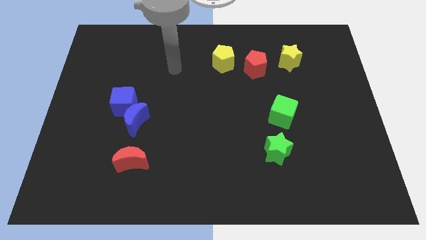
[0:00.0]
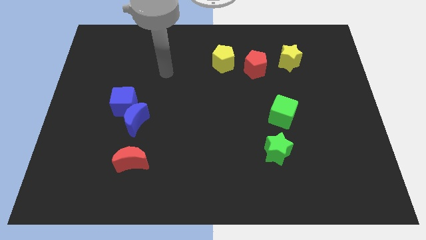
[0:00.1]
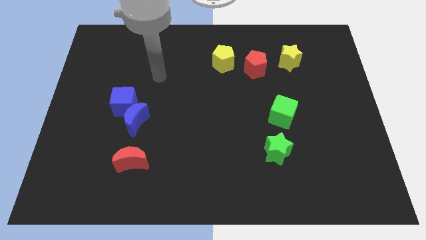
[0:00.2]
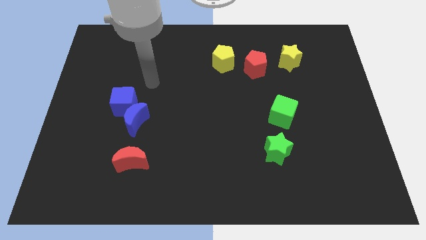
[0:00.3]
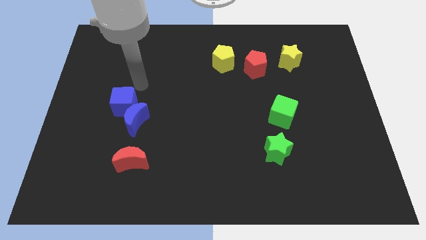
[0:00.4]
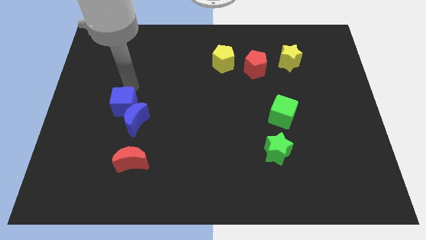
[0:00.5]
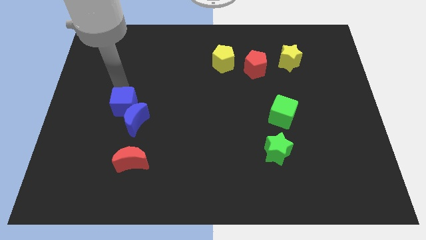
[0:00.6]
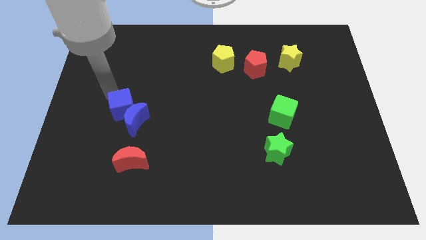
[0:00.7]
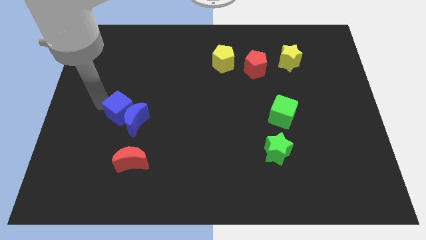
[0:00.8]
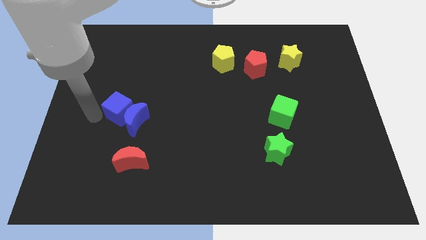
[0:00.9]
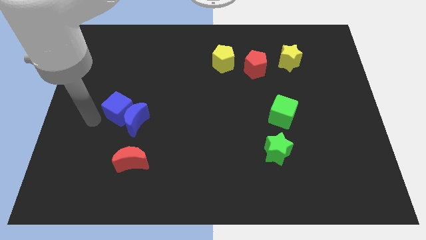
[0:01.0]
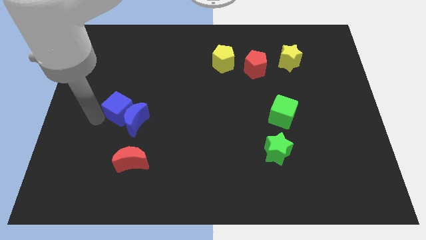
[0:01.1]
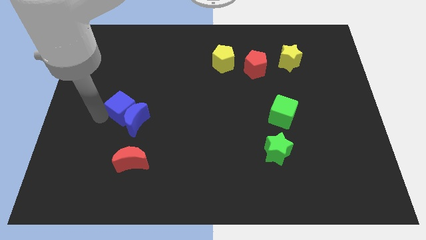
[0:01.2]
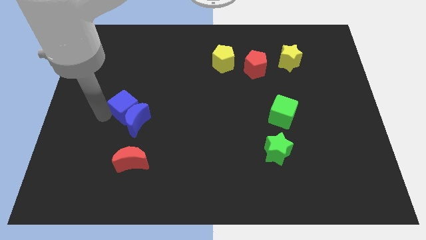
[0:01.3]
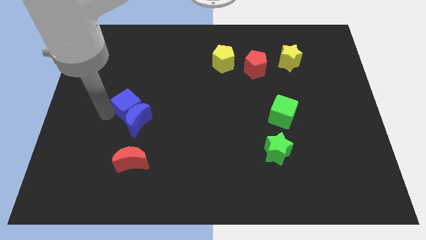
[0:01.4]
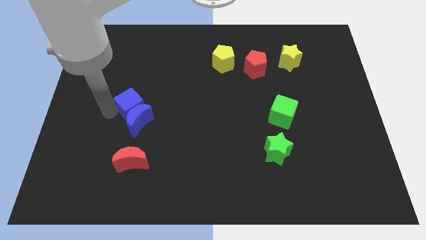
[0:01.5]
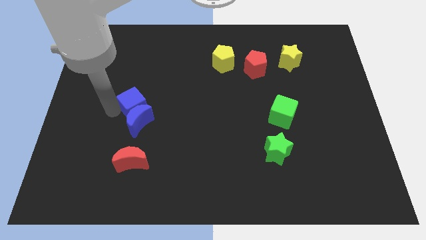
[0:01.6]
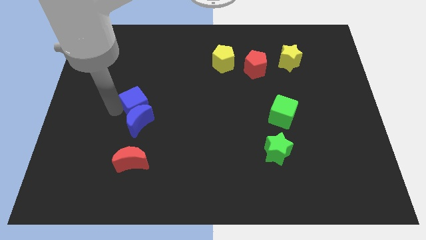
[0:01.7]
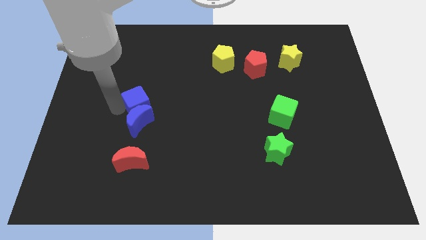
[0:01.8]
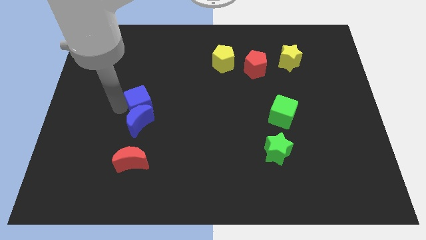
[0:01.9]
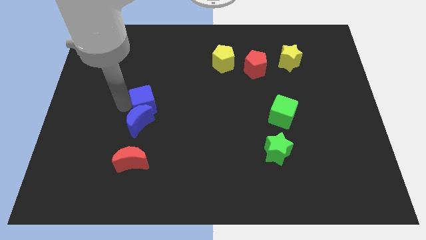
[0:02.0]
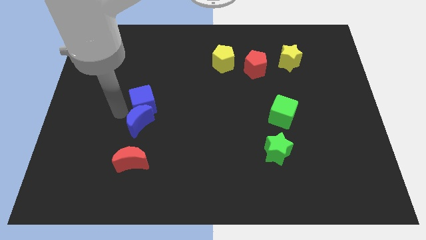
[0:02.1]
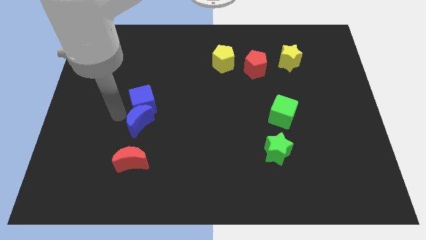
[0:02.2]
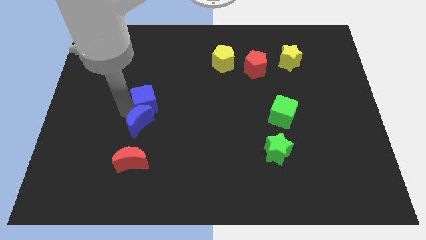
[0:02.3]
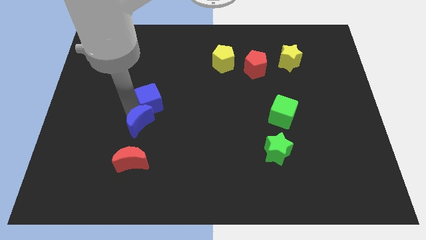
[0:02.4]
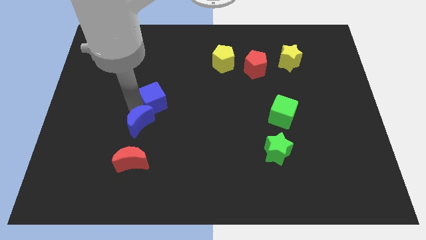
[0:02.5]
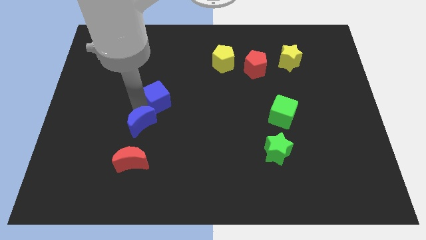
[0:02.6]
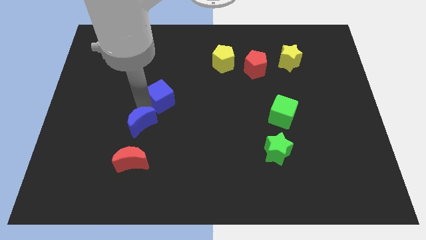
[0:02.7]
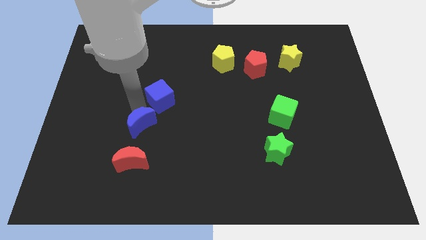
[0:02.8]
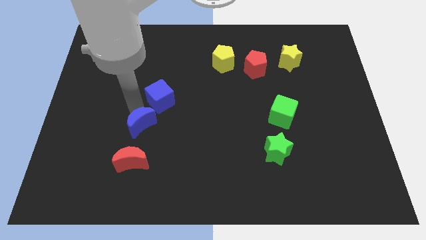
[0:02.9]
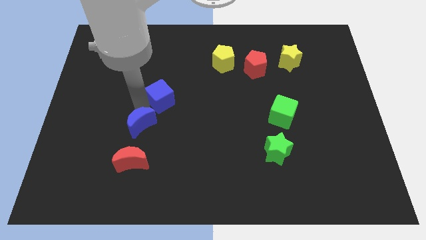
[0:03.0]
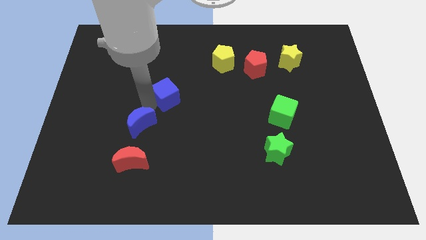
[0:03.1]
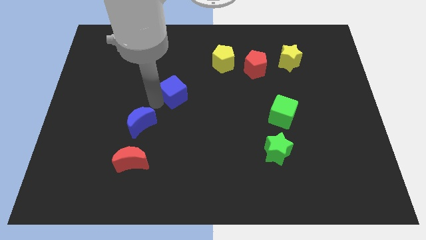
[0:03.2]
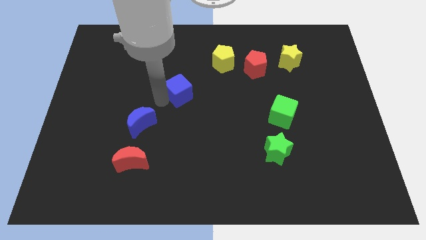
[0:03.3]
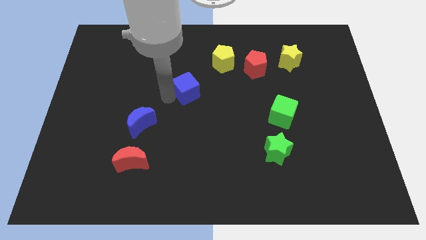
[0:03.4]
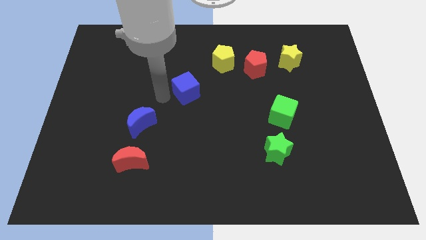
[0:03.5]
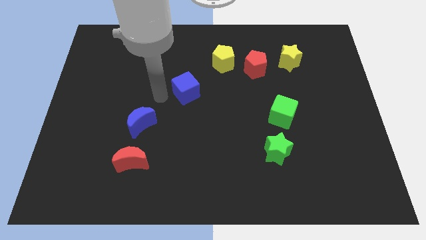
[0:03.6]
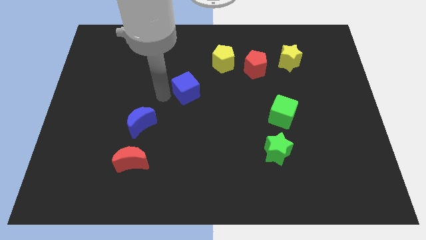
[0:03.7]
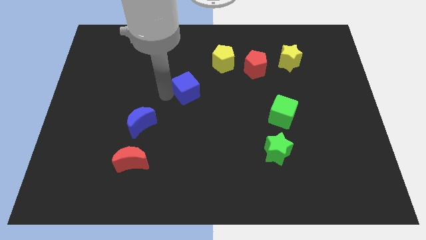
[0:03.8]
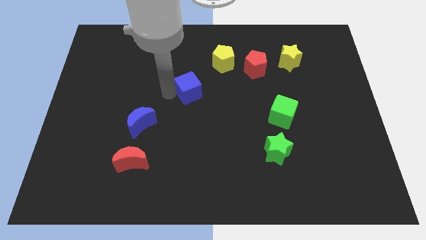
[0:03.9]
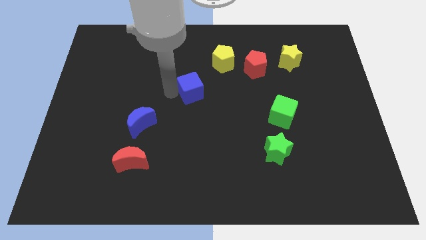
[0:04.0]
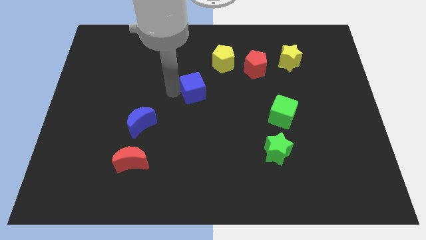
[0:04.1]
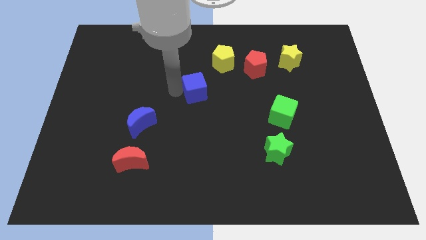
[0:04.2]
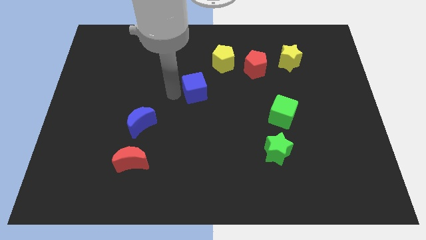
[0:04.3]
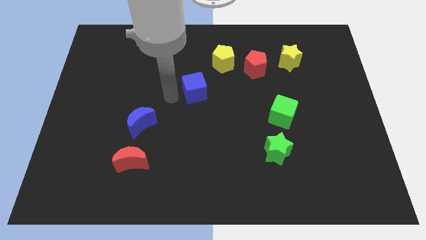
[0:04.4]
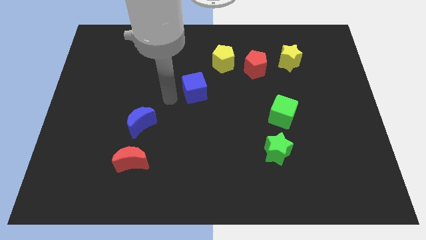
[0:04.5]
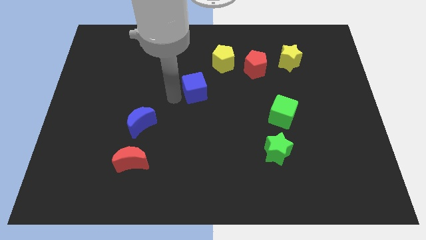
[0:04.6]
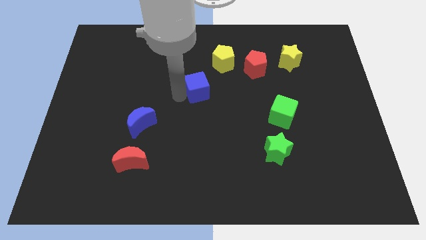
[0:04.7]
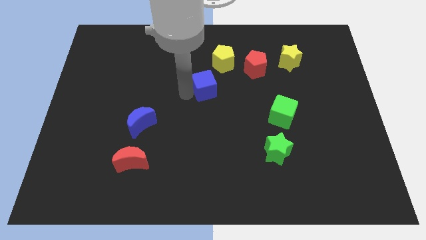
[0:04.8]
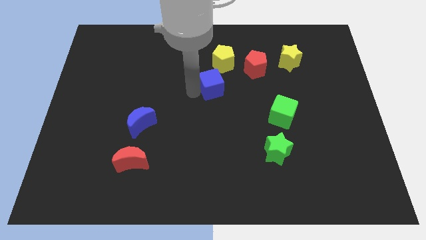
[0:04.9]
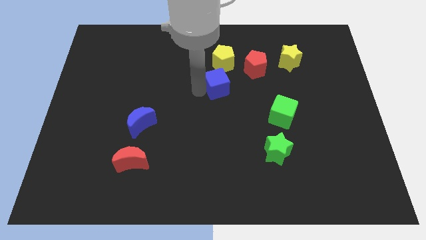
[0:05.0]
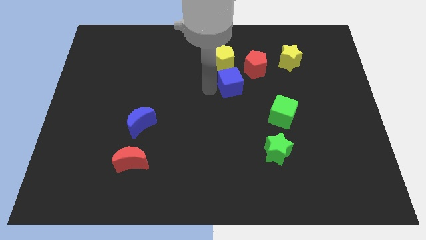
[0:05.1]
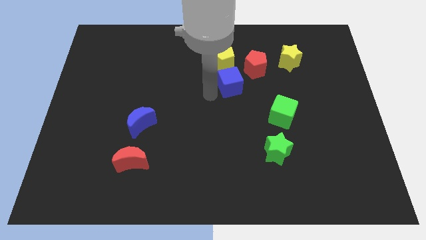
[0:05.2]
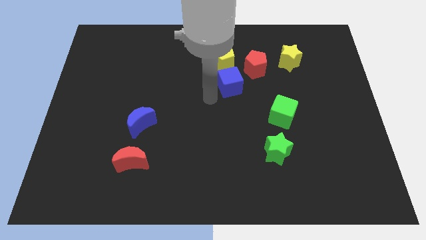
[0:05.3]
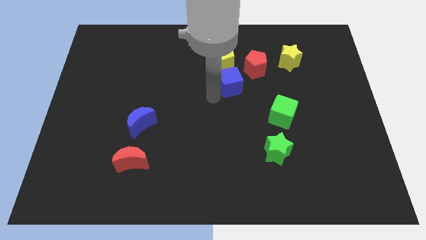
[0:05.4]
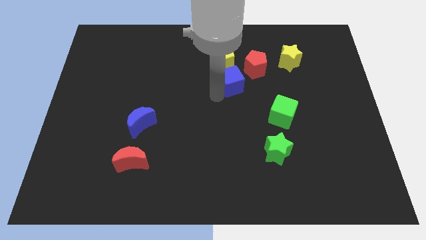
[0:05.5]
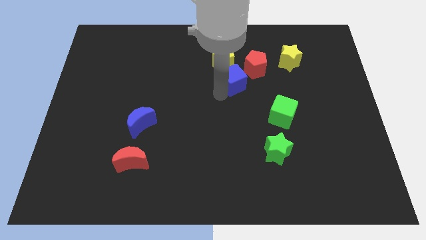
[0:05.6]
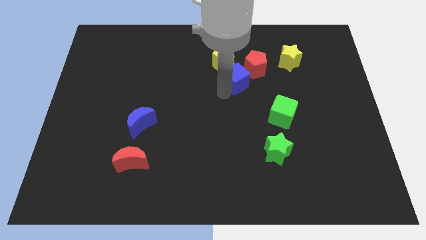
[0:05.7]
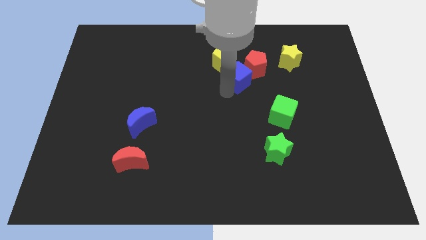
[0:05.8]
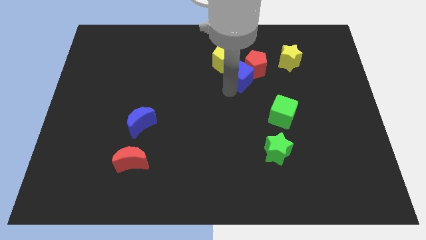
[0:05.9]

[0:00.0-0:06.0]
move the blue cube towards the red pentagon

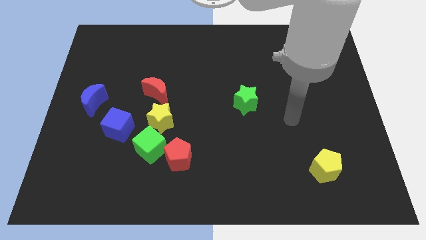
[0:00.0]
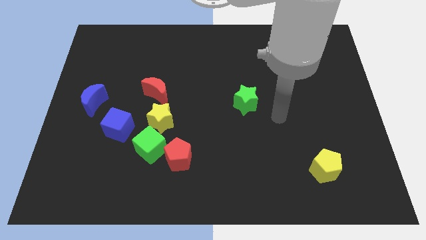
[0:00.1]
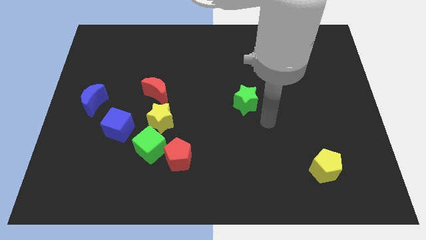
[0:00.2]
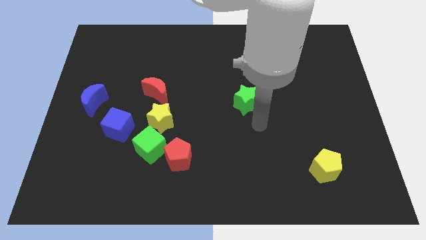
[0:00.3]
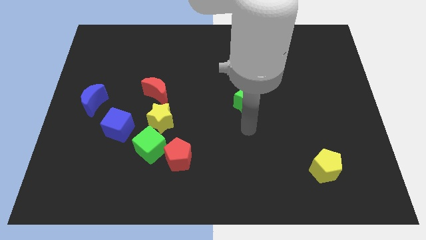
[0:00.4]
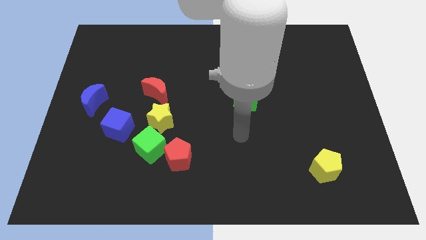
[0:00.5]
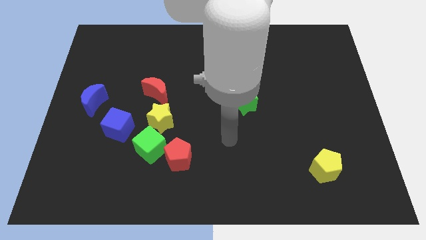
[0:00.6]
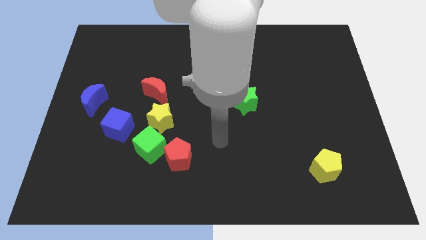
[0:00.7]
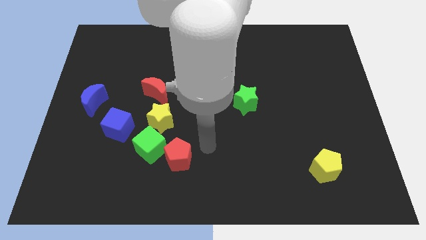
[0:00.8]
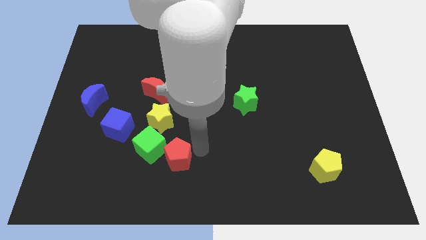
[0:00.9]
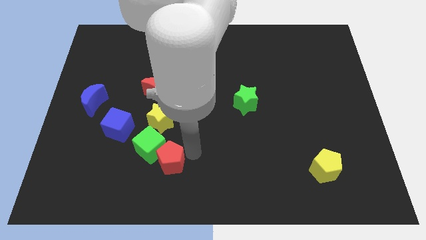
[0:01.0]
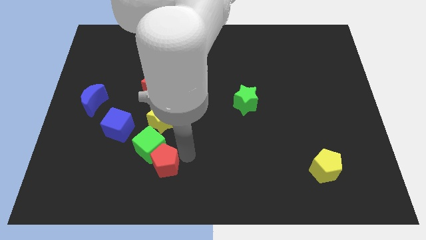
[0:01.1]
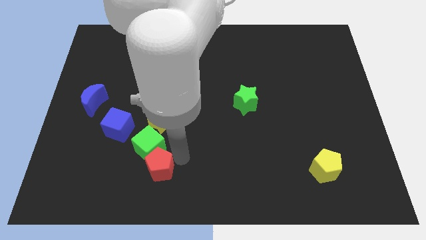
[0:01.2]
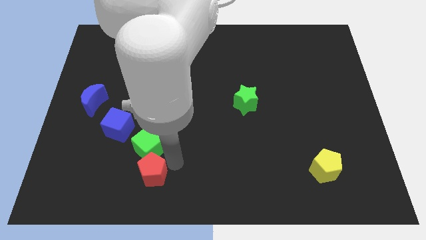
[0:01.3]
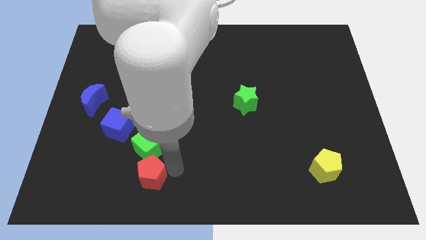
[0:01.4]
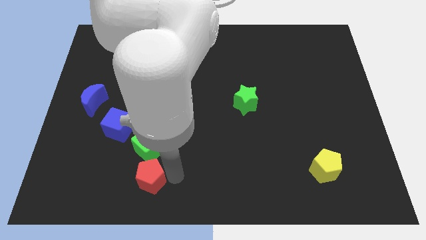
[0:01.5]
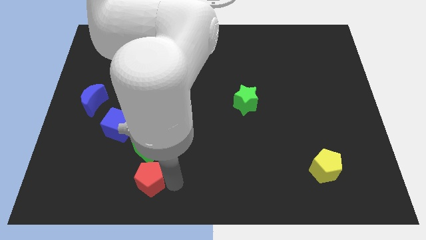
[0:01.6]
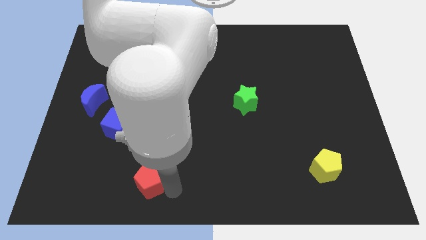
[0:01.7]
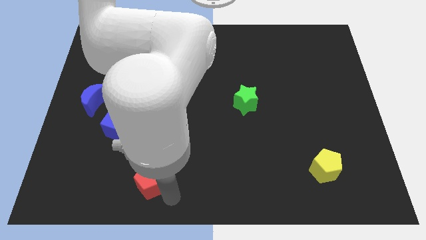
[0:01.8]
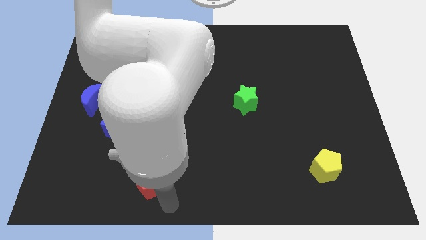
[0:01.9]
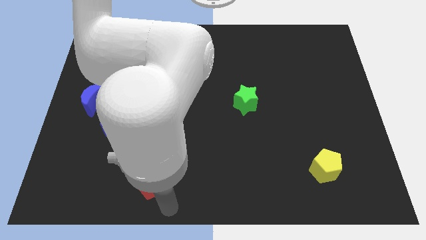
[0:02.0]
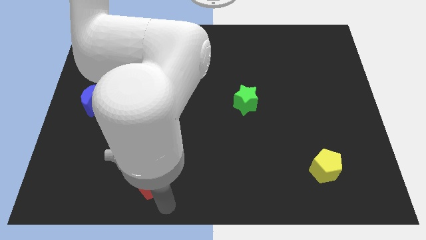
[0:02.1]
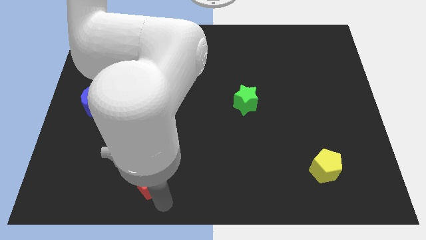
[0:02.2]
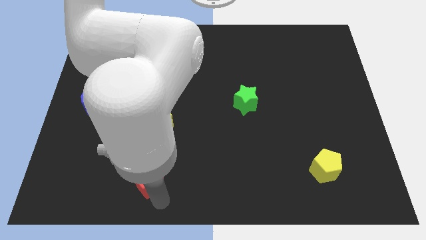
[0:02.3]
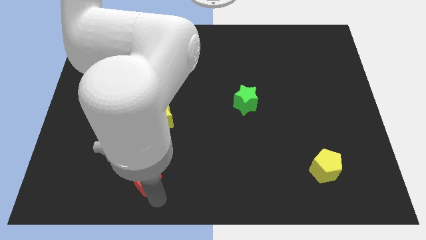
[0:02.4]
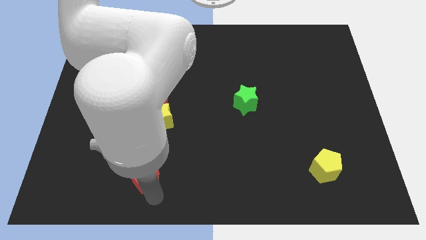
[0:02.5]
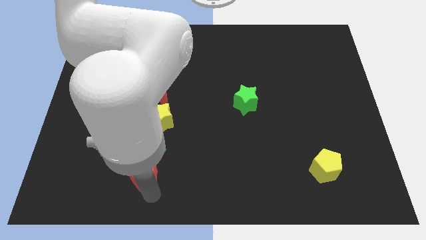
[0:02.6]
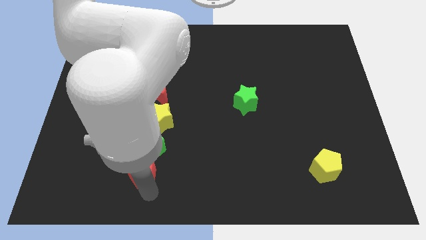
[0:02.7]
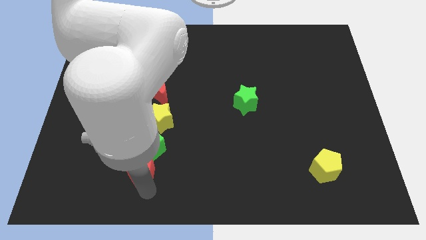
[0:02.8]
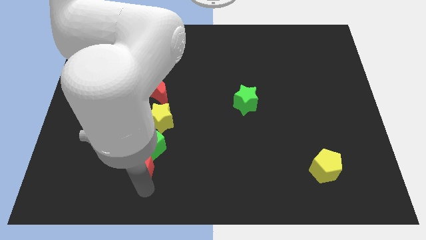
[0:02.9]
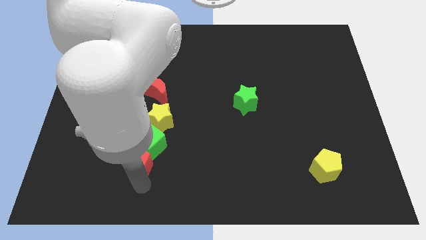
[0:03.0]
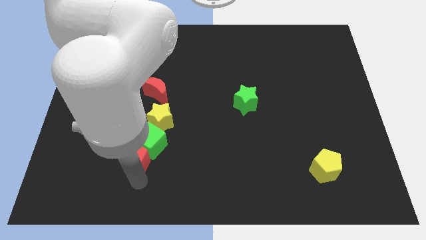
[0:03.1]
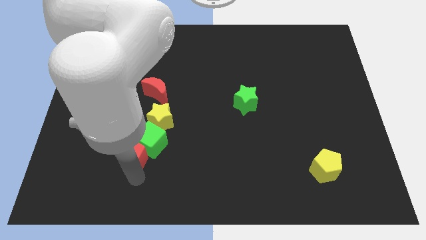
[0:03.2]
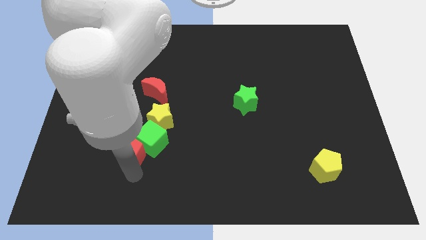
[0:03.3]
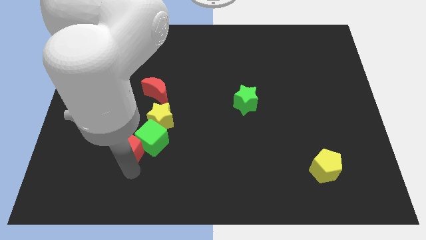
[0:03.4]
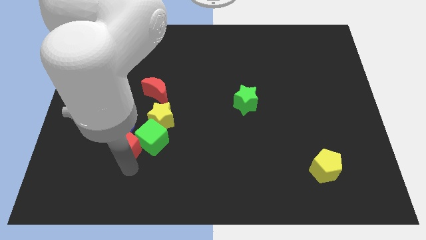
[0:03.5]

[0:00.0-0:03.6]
put the red pentagon to the blue cube
